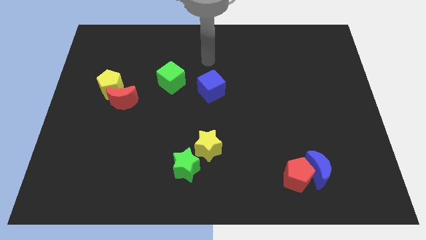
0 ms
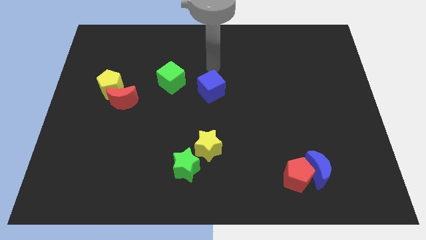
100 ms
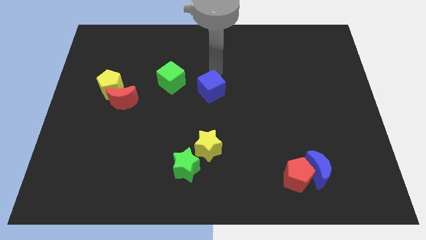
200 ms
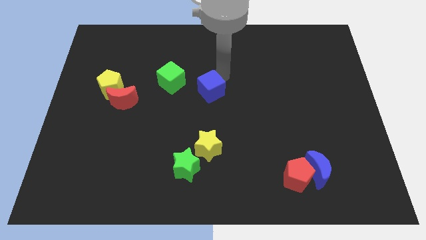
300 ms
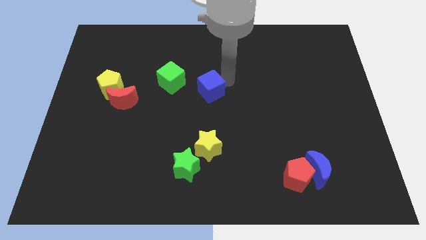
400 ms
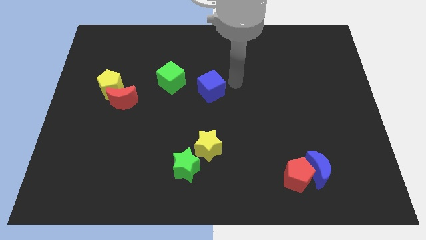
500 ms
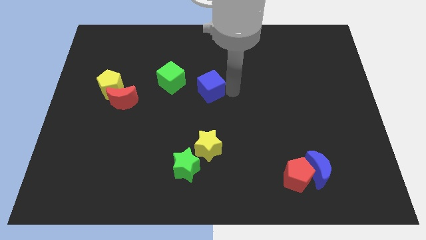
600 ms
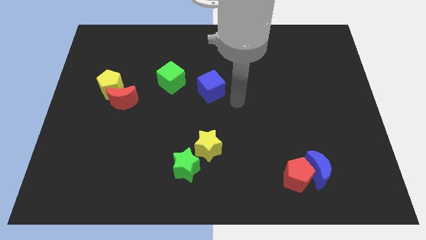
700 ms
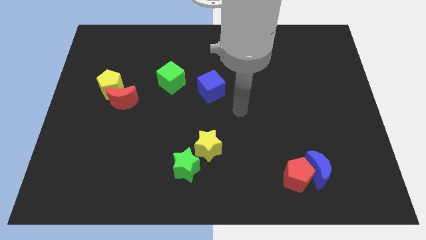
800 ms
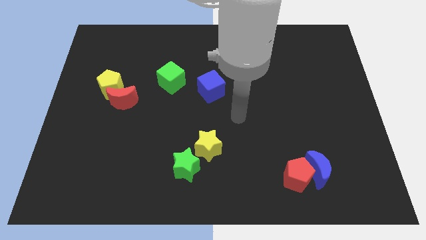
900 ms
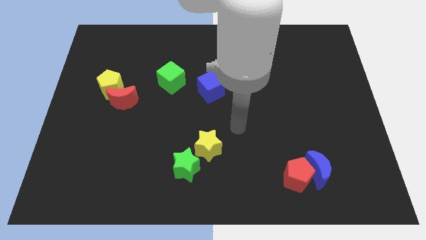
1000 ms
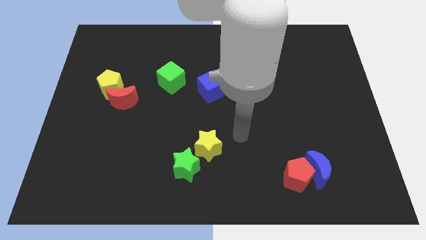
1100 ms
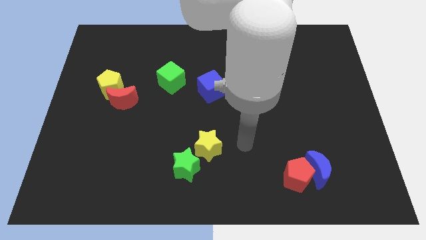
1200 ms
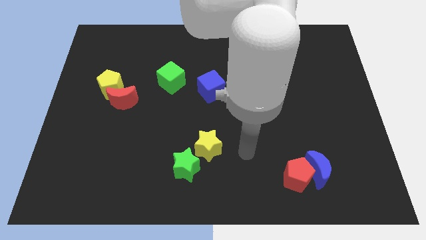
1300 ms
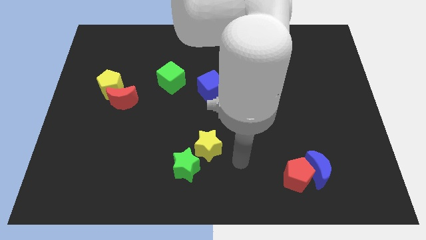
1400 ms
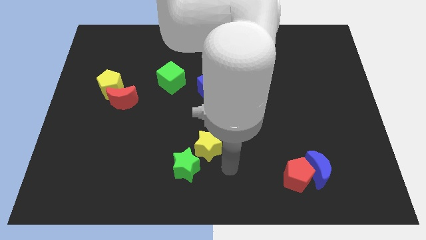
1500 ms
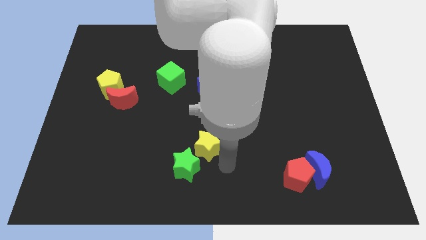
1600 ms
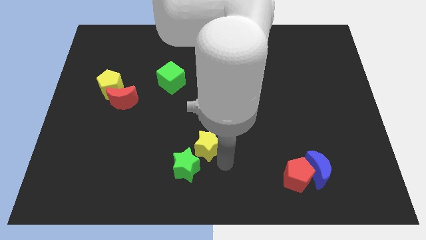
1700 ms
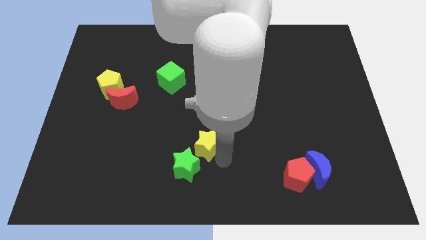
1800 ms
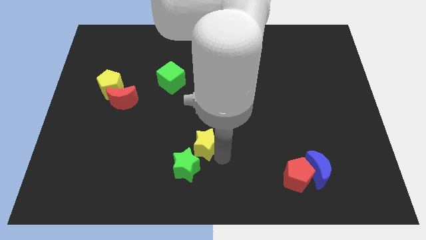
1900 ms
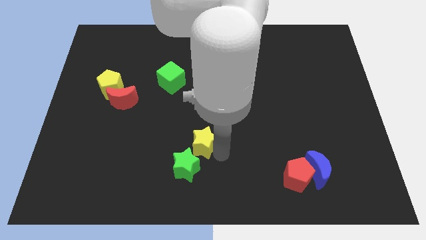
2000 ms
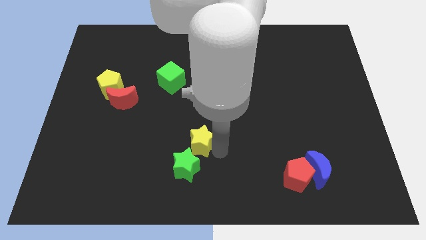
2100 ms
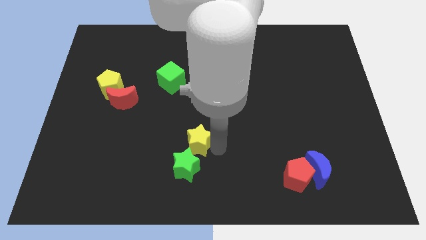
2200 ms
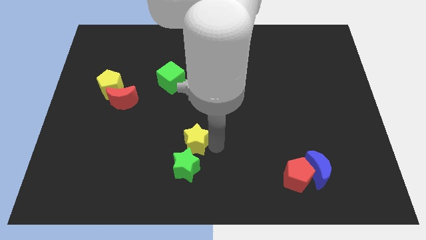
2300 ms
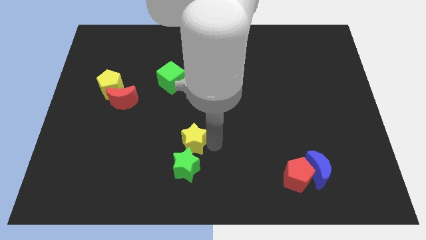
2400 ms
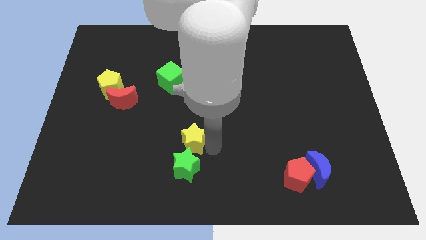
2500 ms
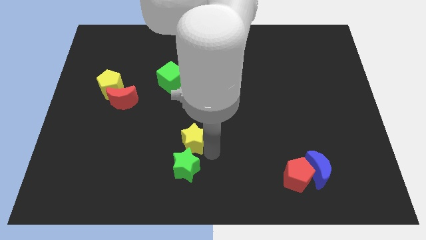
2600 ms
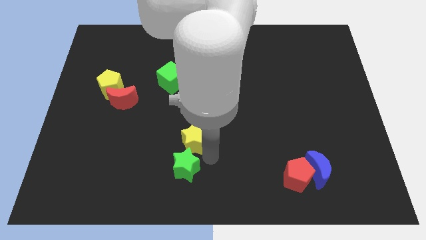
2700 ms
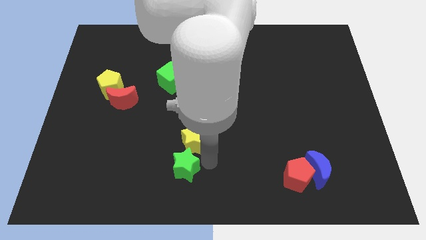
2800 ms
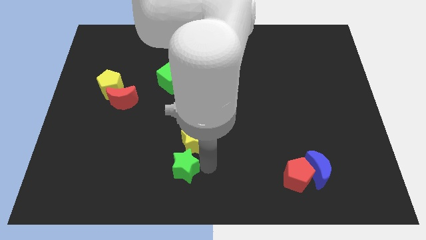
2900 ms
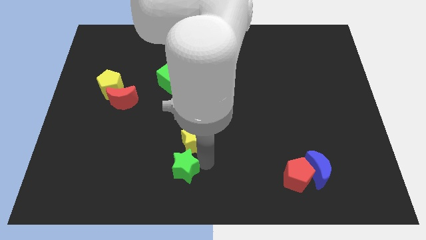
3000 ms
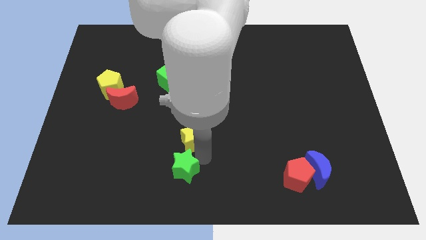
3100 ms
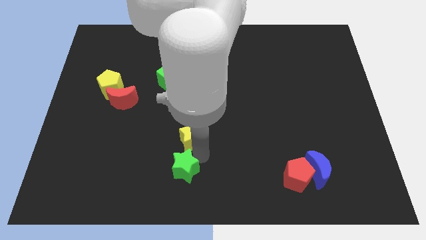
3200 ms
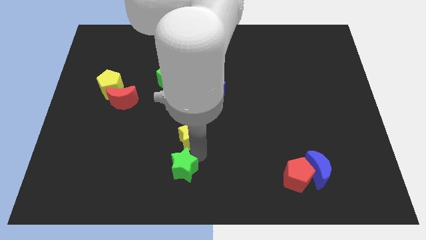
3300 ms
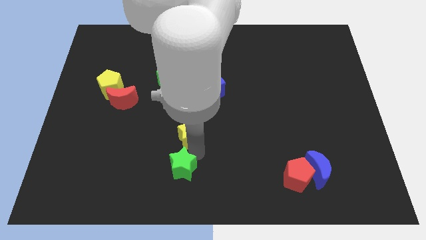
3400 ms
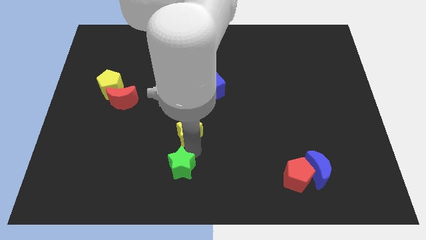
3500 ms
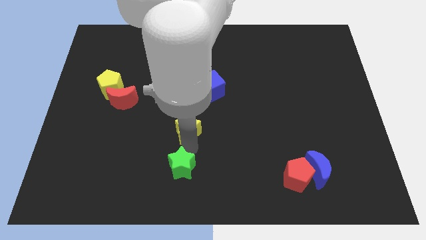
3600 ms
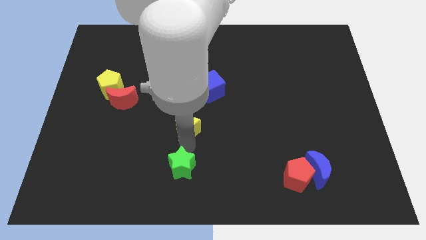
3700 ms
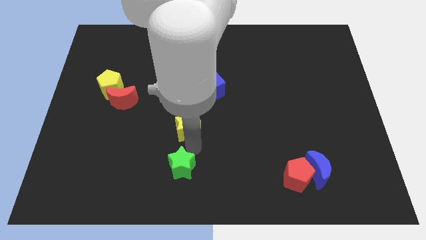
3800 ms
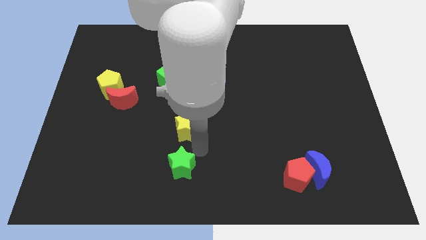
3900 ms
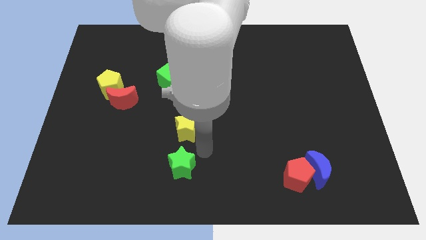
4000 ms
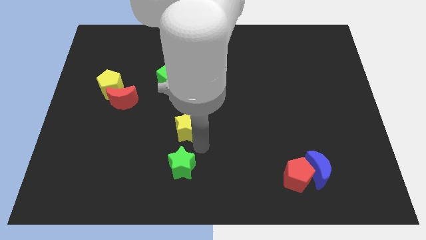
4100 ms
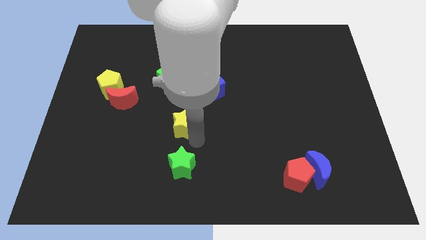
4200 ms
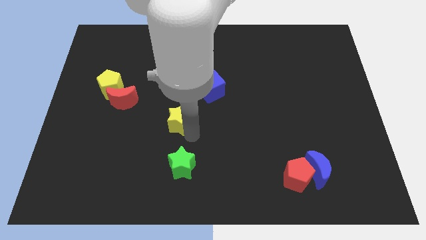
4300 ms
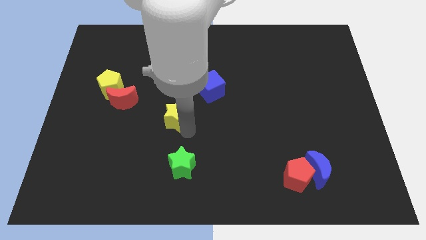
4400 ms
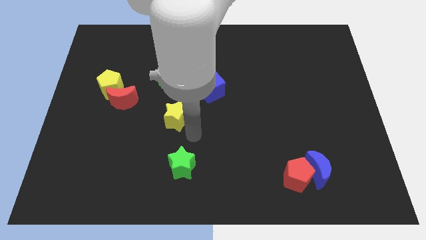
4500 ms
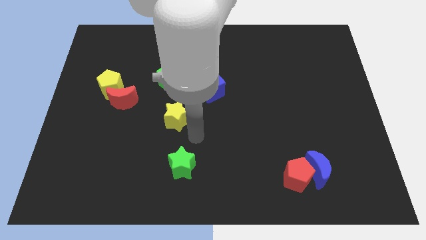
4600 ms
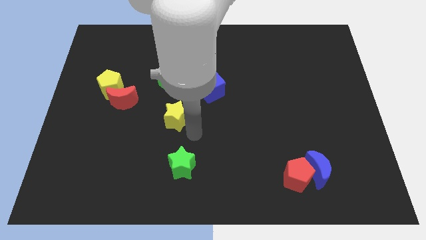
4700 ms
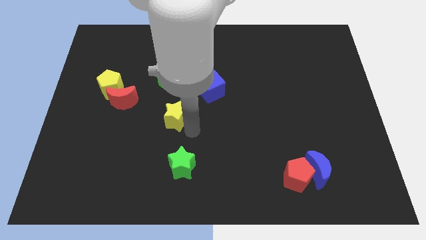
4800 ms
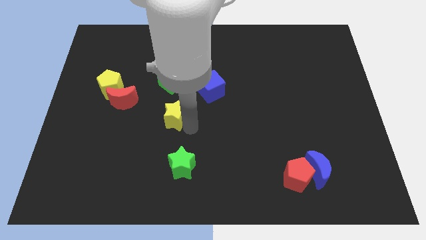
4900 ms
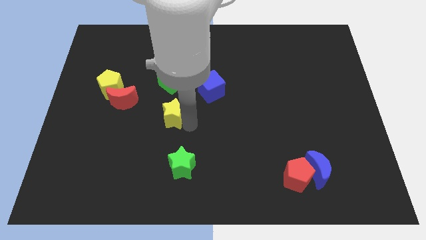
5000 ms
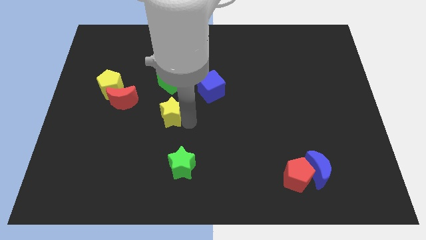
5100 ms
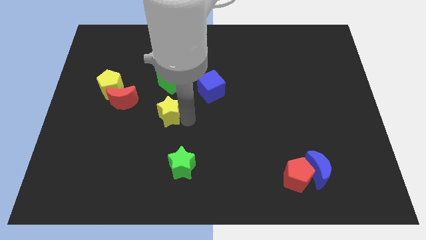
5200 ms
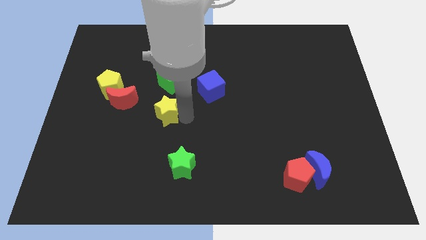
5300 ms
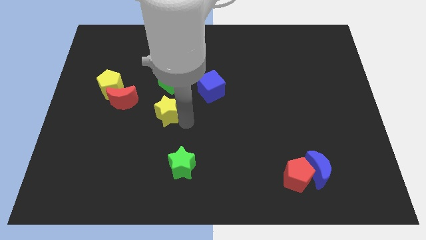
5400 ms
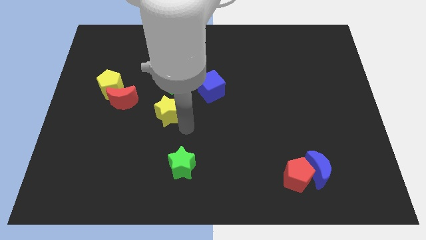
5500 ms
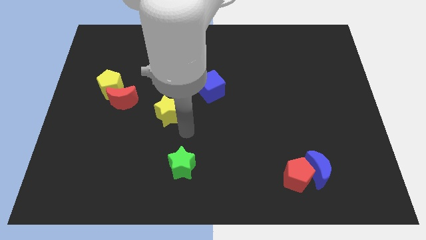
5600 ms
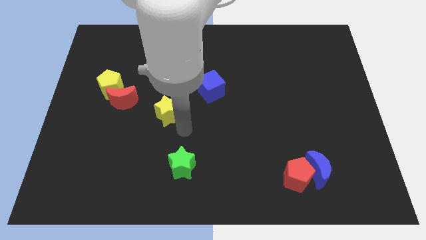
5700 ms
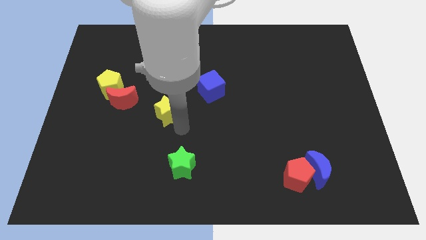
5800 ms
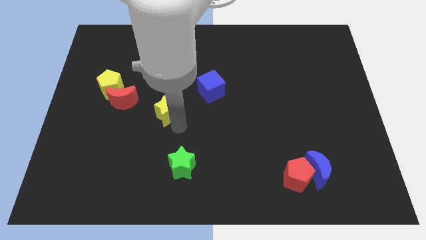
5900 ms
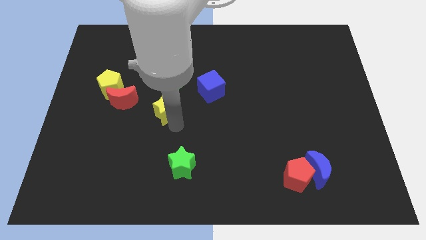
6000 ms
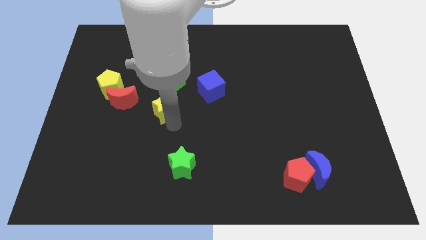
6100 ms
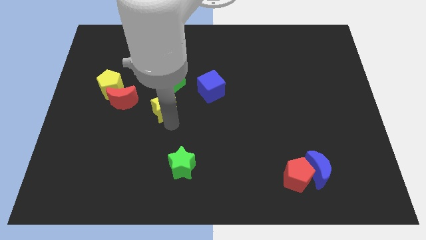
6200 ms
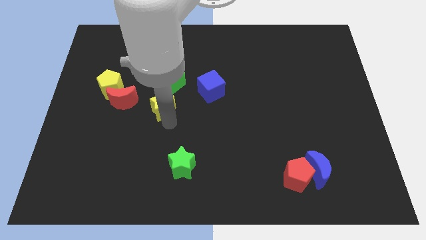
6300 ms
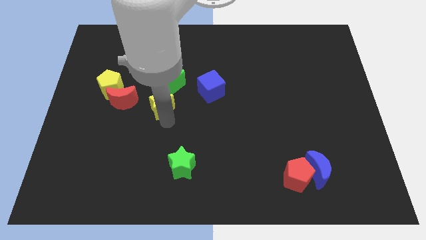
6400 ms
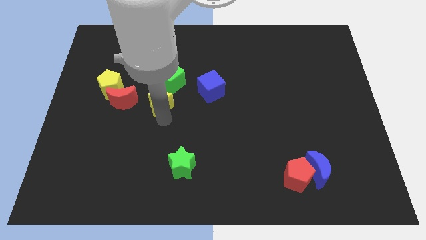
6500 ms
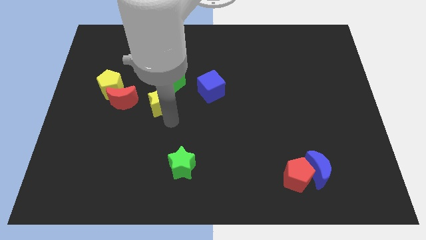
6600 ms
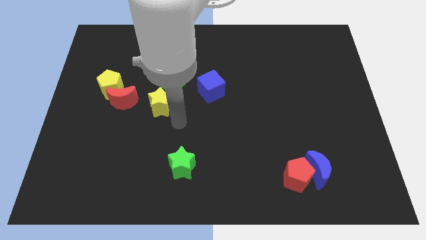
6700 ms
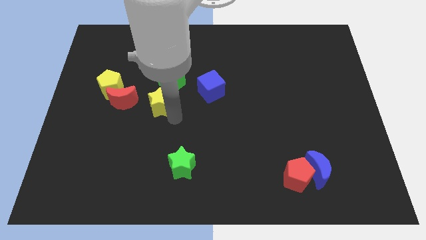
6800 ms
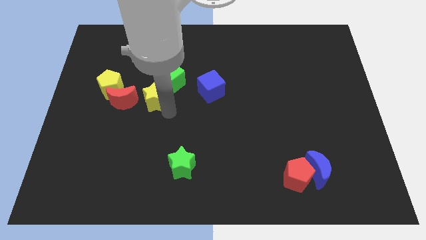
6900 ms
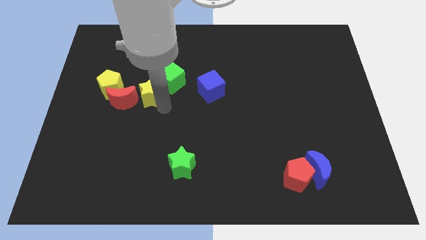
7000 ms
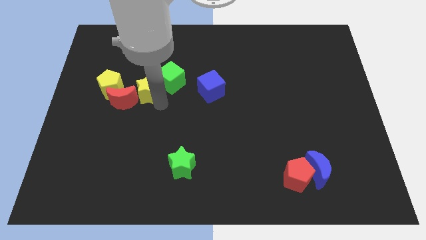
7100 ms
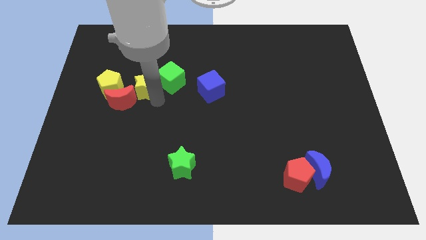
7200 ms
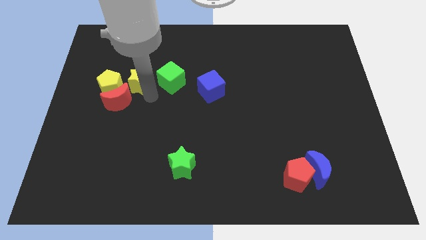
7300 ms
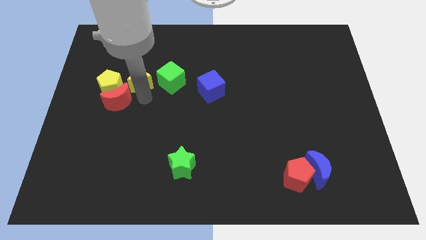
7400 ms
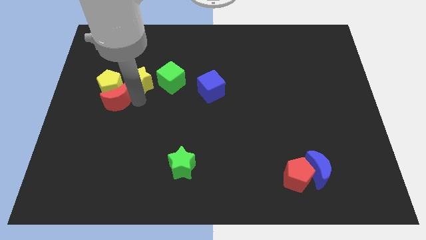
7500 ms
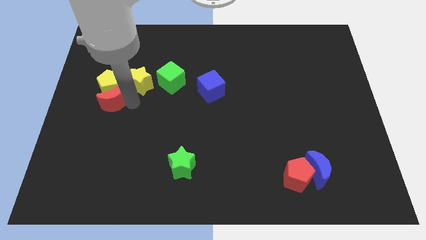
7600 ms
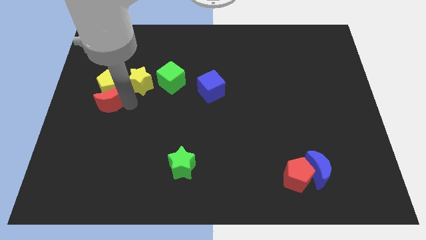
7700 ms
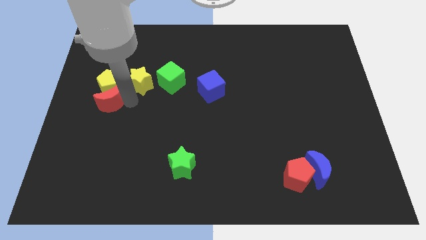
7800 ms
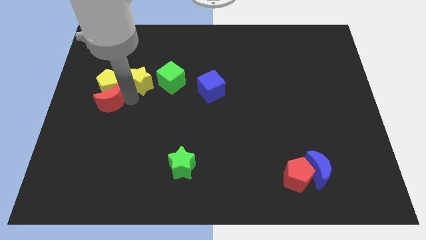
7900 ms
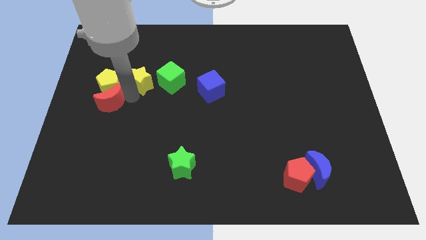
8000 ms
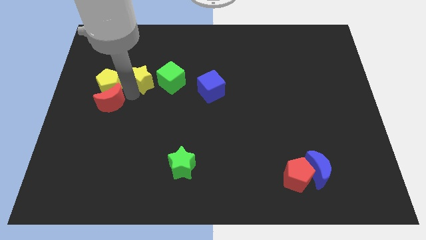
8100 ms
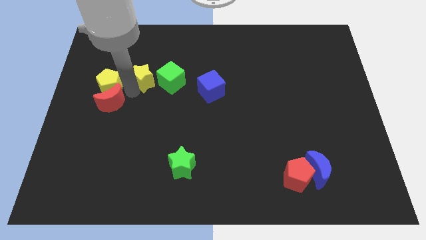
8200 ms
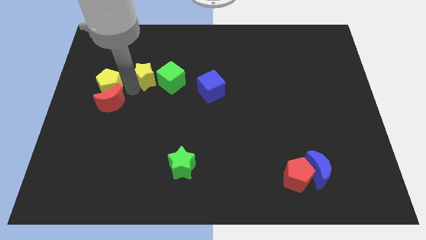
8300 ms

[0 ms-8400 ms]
move the yellow star to the top left of the green cube
